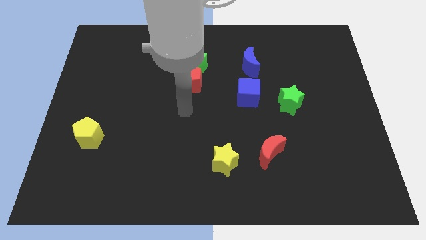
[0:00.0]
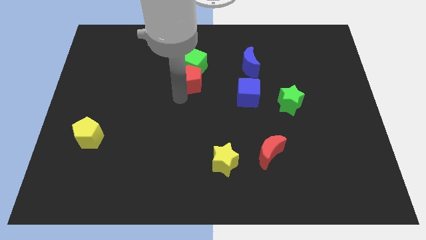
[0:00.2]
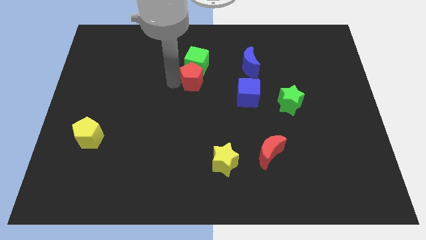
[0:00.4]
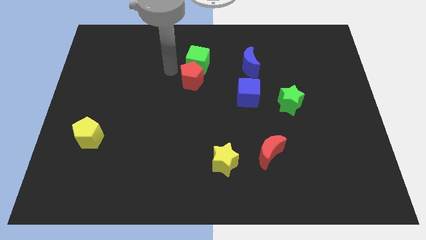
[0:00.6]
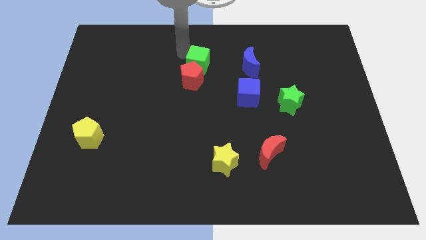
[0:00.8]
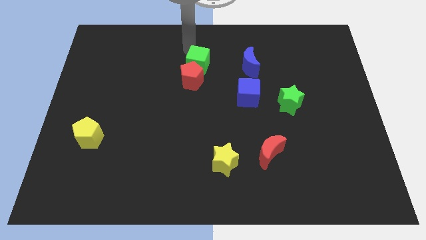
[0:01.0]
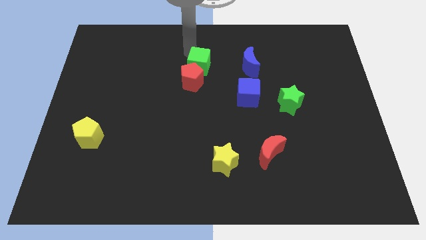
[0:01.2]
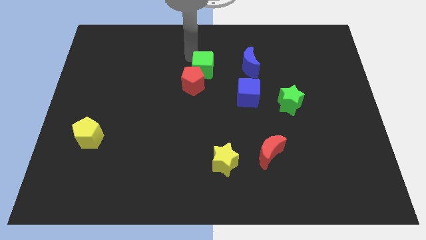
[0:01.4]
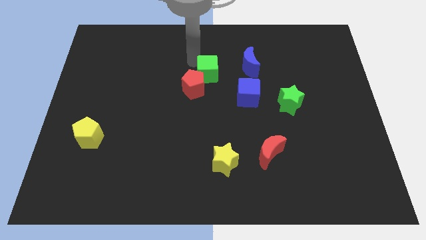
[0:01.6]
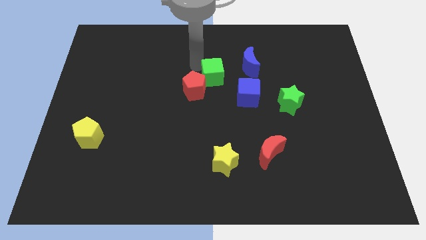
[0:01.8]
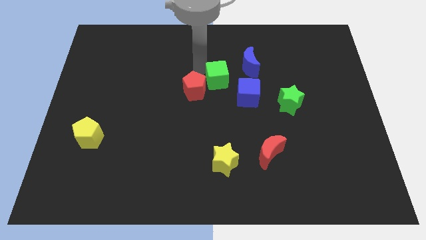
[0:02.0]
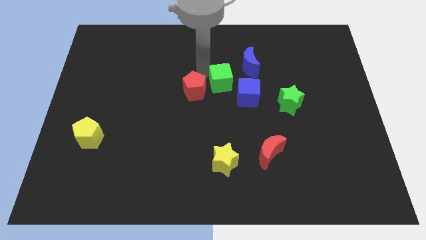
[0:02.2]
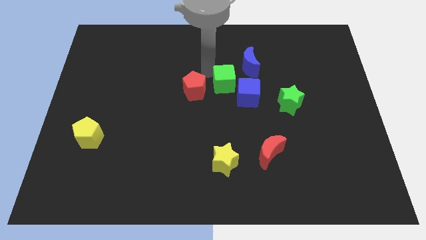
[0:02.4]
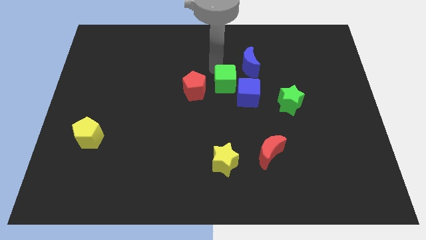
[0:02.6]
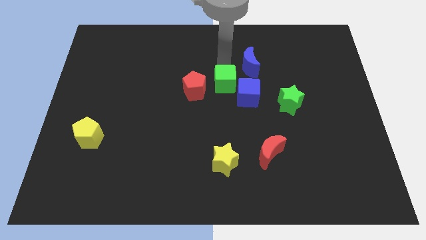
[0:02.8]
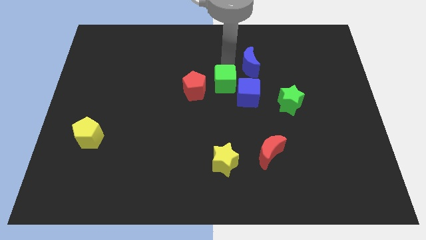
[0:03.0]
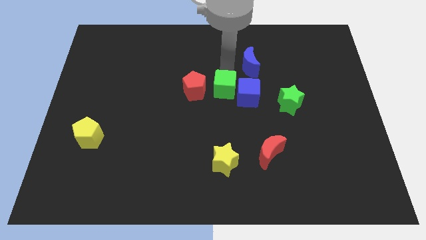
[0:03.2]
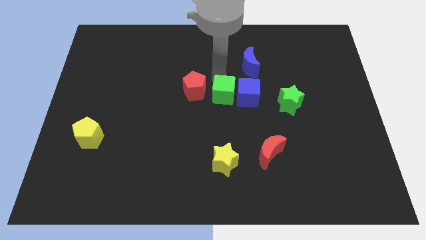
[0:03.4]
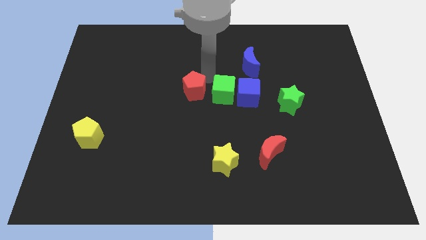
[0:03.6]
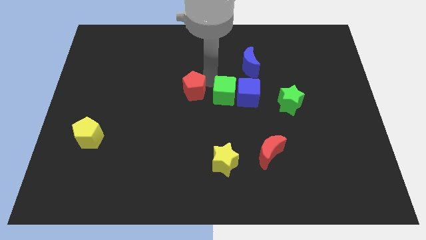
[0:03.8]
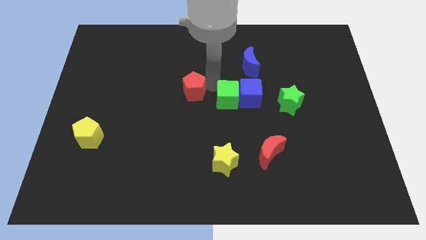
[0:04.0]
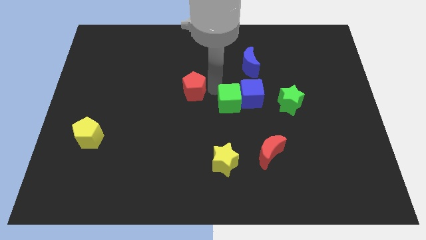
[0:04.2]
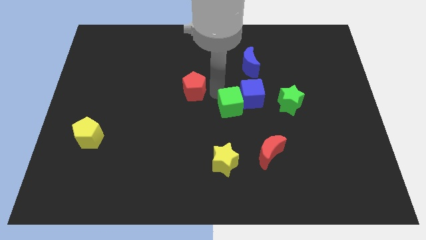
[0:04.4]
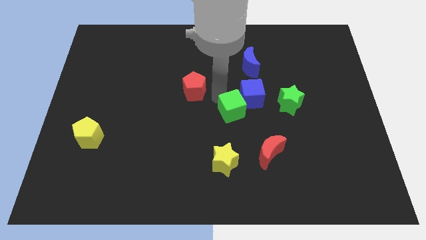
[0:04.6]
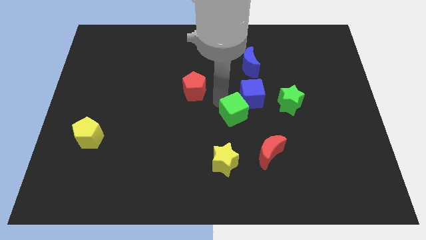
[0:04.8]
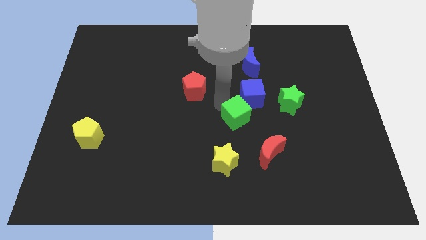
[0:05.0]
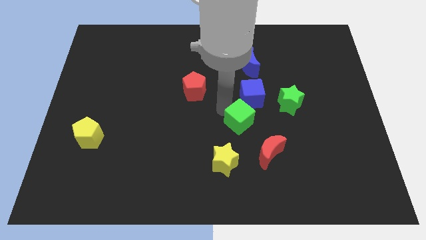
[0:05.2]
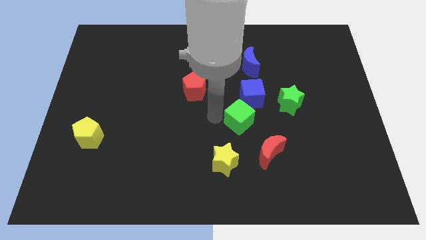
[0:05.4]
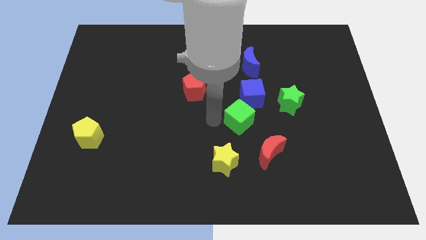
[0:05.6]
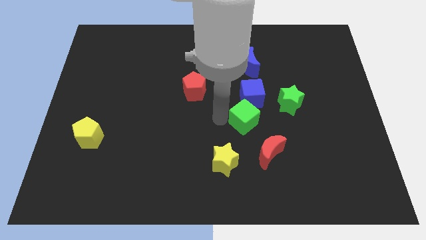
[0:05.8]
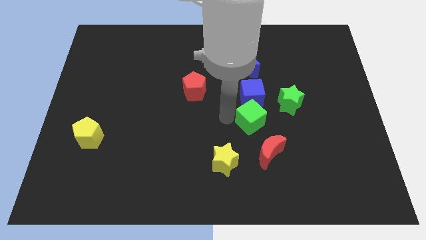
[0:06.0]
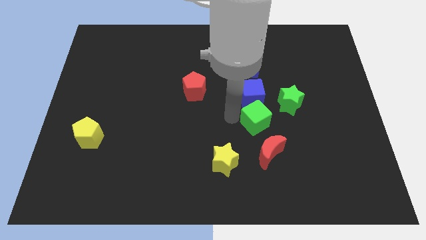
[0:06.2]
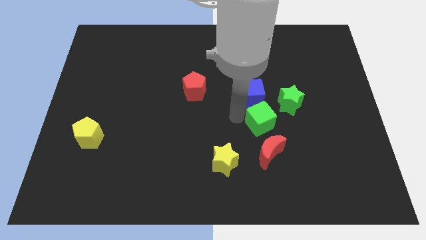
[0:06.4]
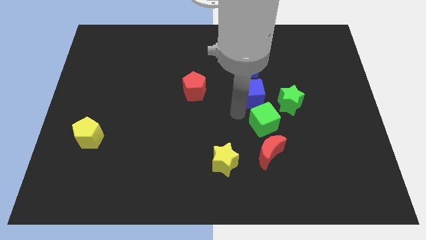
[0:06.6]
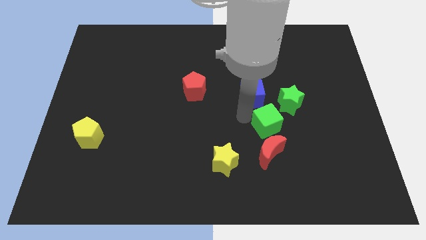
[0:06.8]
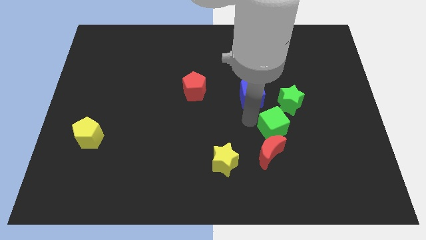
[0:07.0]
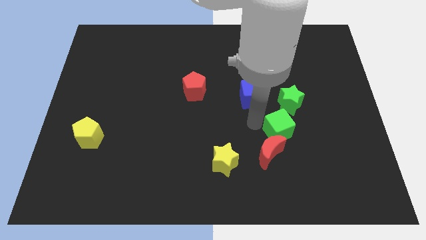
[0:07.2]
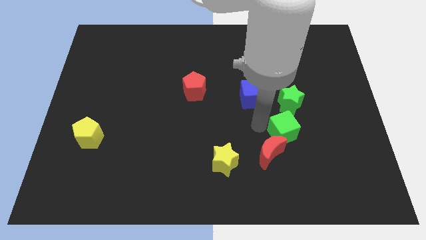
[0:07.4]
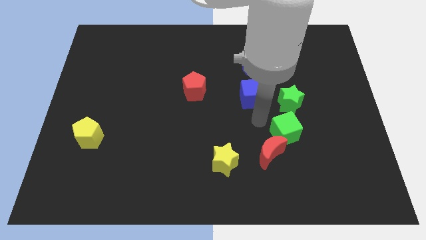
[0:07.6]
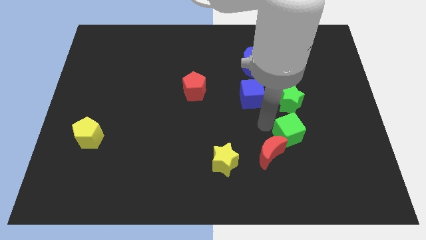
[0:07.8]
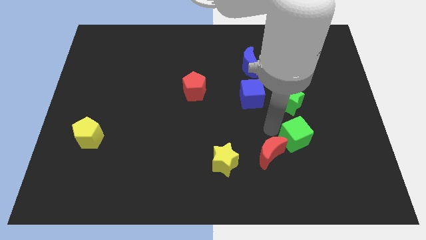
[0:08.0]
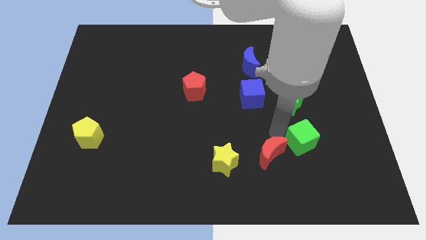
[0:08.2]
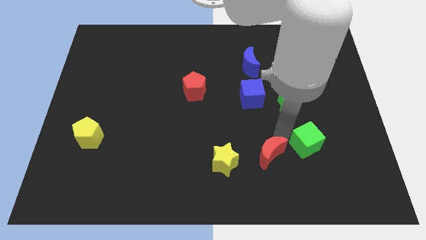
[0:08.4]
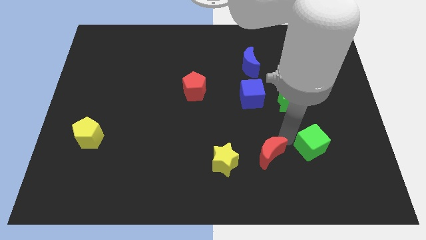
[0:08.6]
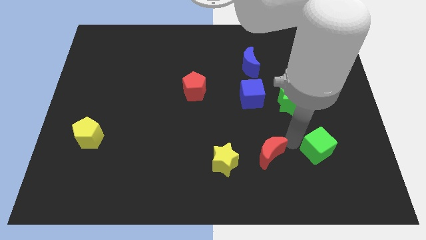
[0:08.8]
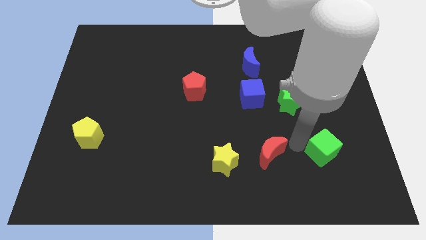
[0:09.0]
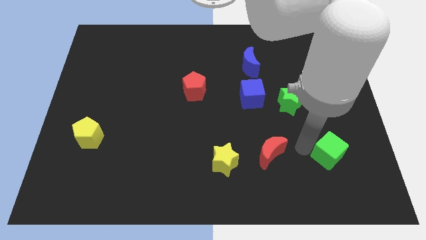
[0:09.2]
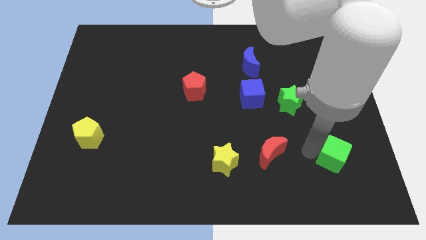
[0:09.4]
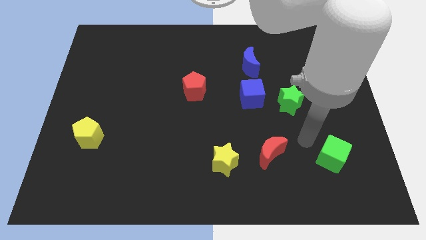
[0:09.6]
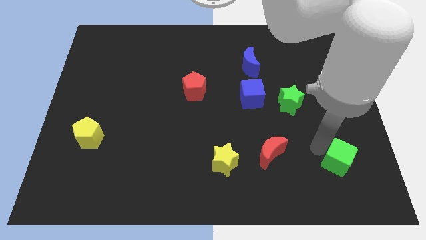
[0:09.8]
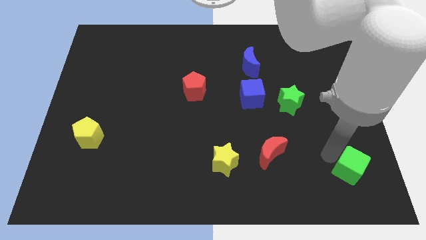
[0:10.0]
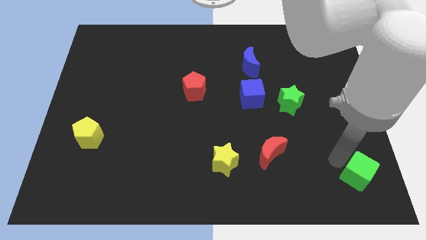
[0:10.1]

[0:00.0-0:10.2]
push the green cube to the bottom right
